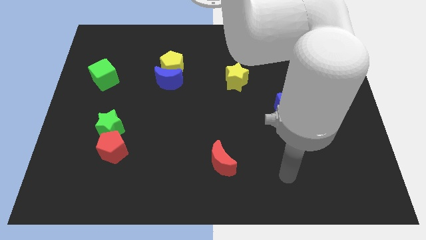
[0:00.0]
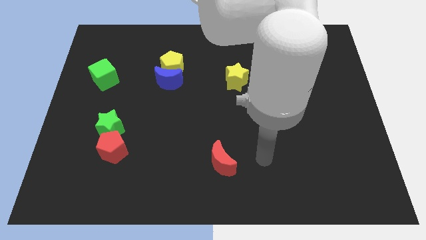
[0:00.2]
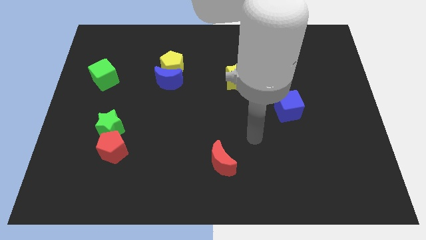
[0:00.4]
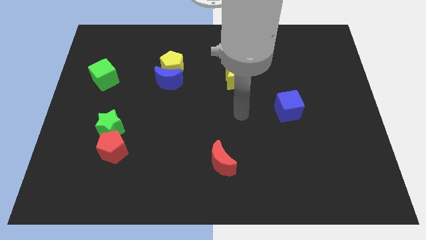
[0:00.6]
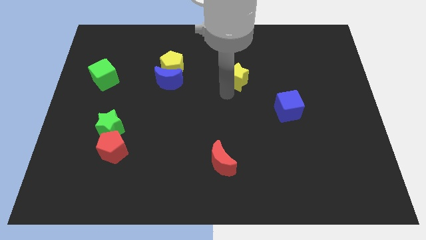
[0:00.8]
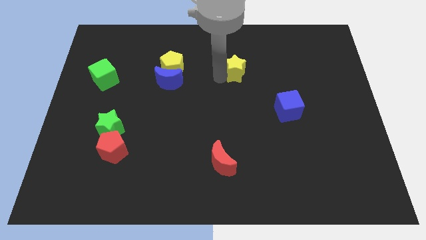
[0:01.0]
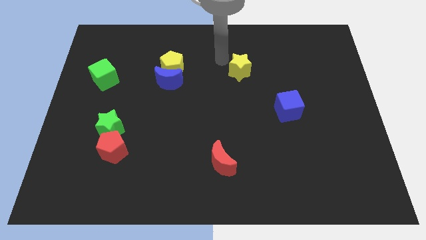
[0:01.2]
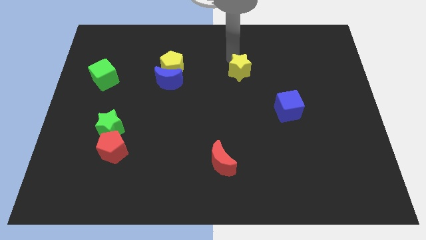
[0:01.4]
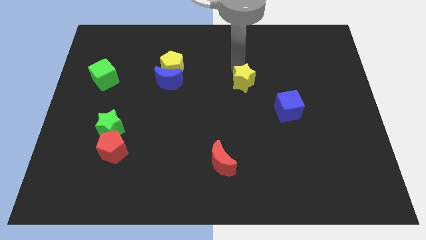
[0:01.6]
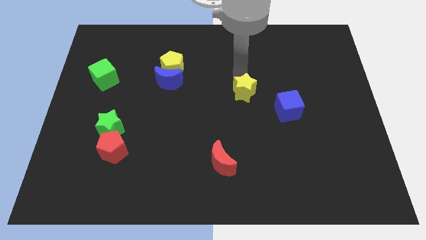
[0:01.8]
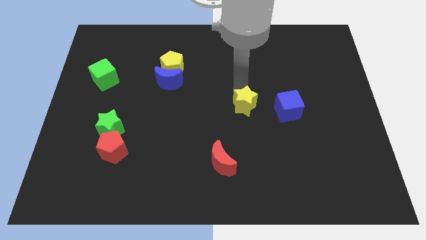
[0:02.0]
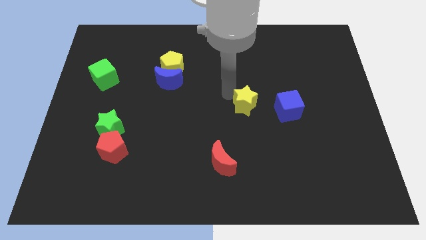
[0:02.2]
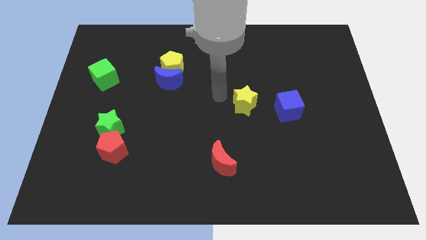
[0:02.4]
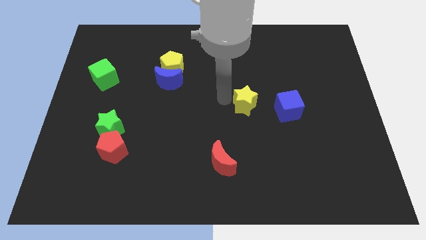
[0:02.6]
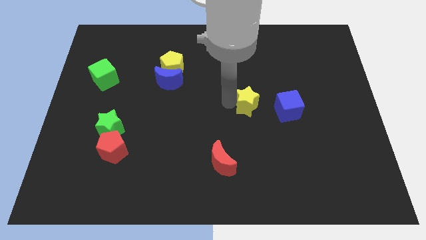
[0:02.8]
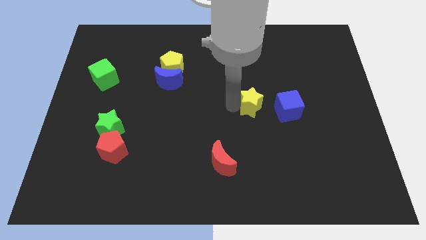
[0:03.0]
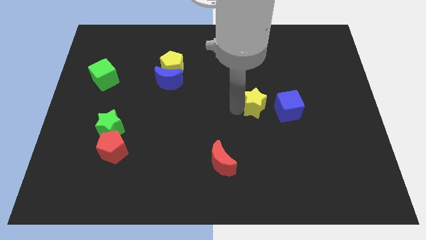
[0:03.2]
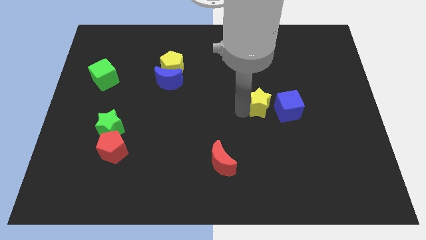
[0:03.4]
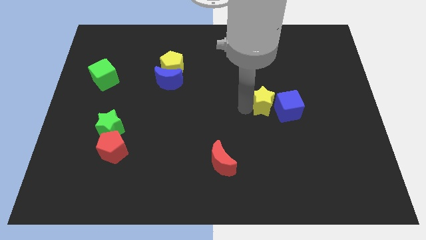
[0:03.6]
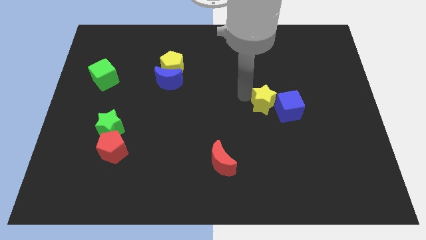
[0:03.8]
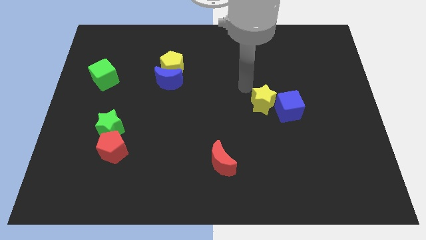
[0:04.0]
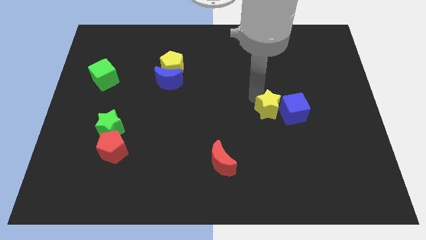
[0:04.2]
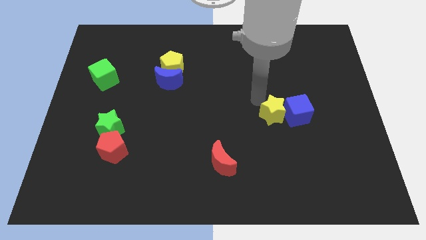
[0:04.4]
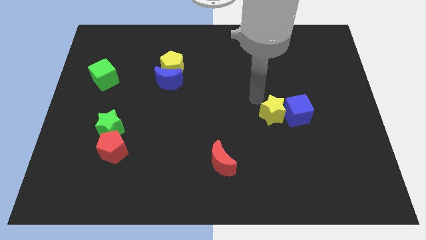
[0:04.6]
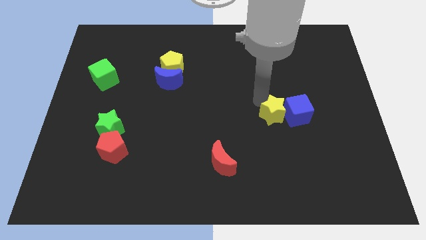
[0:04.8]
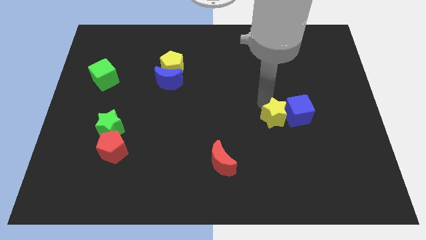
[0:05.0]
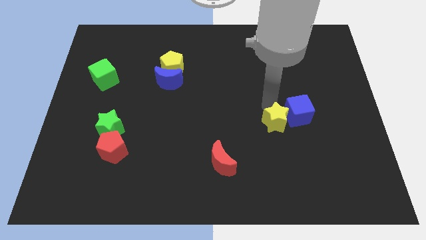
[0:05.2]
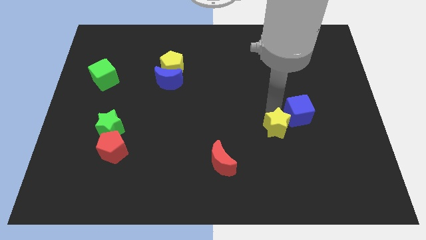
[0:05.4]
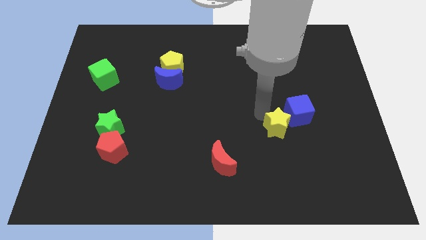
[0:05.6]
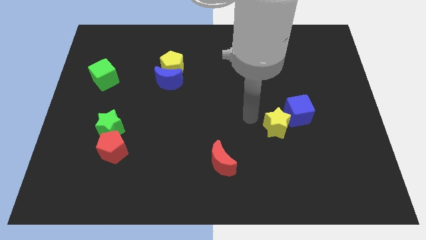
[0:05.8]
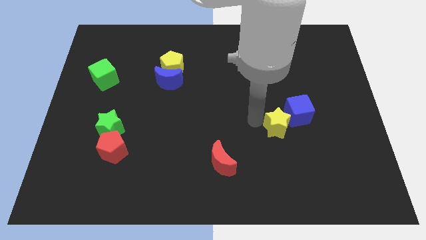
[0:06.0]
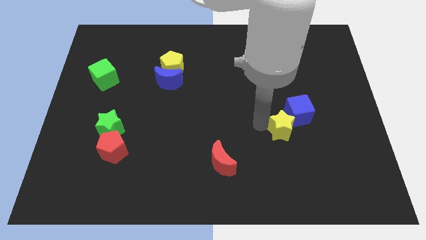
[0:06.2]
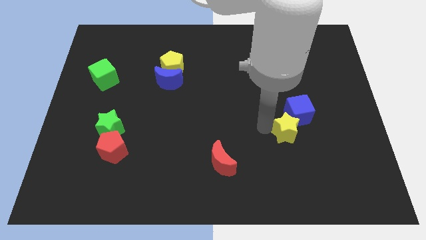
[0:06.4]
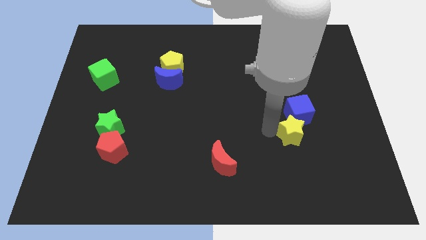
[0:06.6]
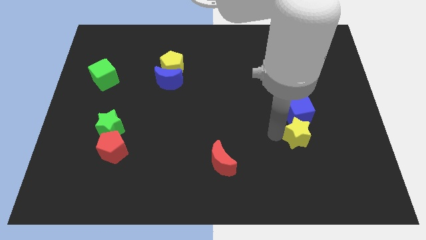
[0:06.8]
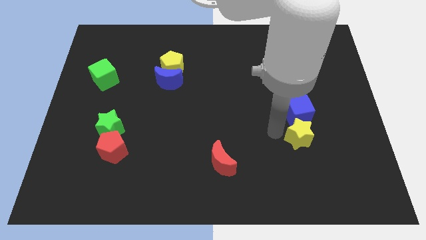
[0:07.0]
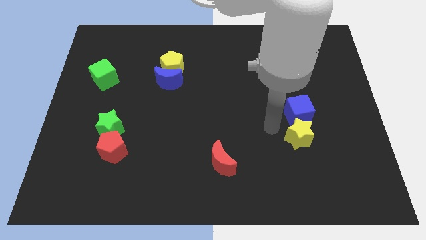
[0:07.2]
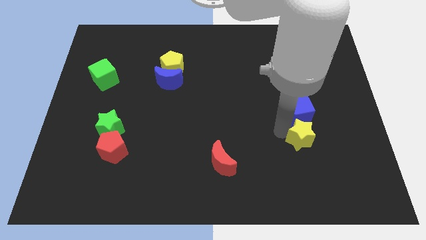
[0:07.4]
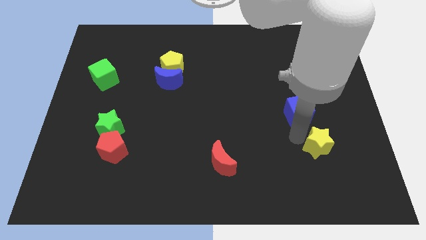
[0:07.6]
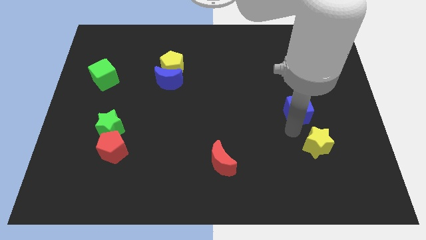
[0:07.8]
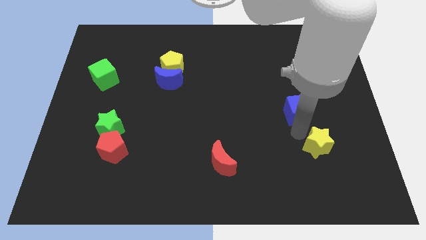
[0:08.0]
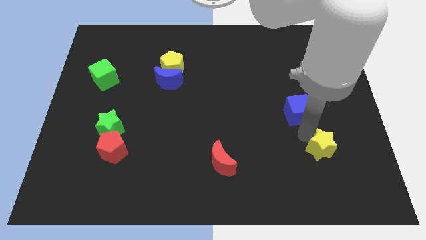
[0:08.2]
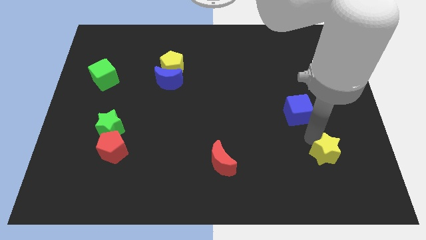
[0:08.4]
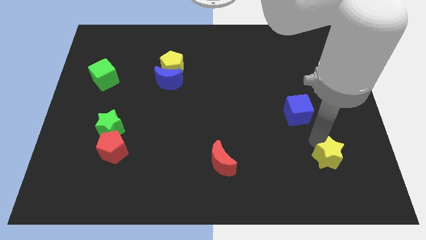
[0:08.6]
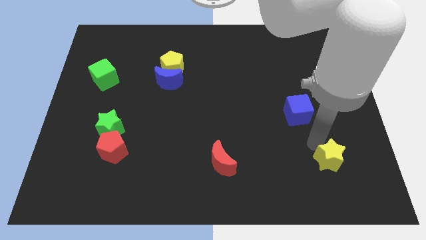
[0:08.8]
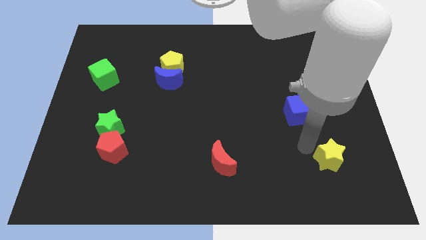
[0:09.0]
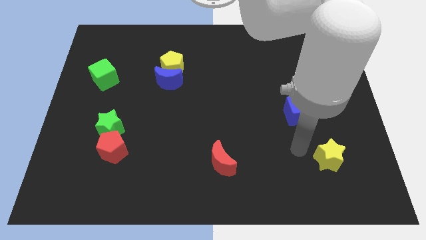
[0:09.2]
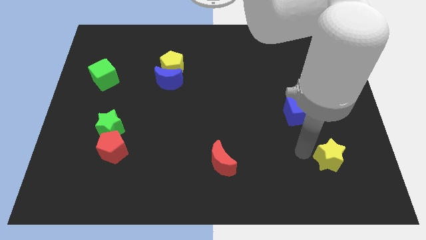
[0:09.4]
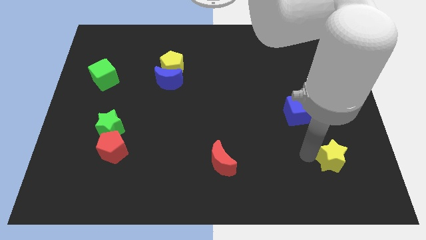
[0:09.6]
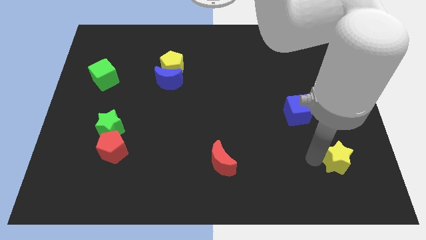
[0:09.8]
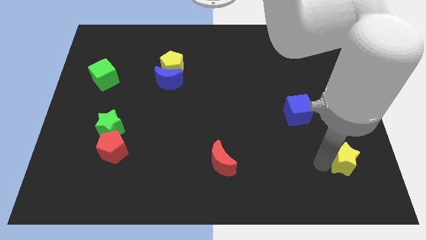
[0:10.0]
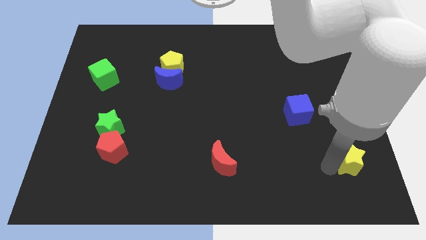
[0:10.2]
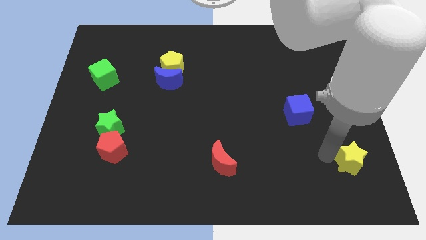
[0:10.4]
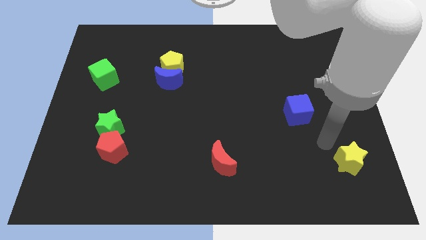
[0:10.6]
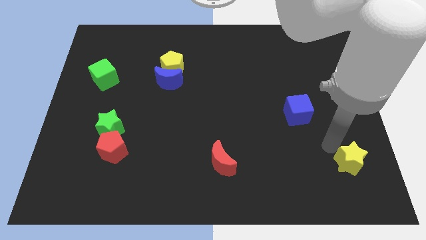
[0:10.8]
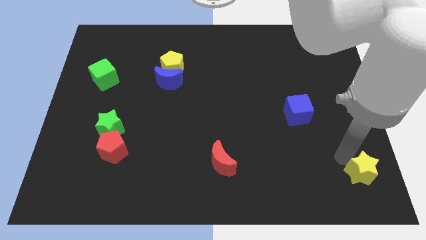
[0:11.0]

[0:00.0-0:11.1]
move the yellow star to the bottom right of the board
